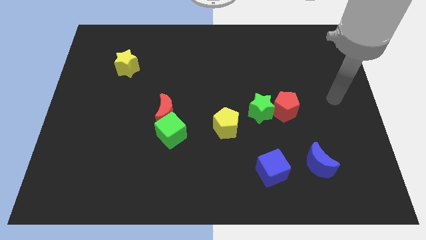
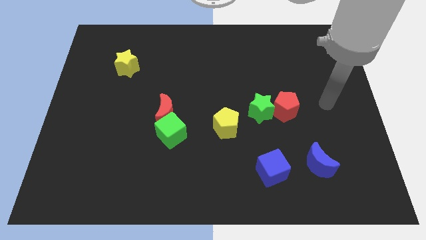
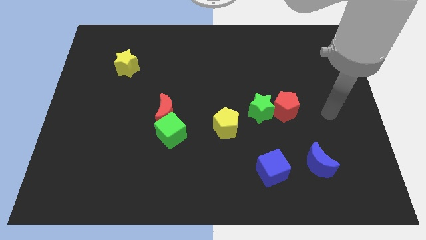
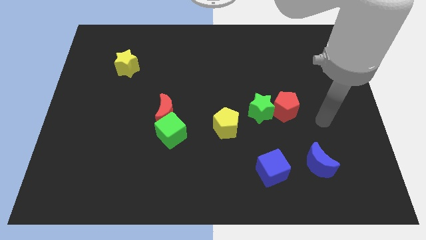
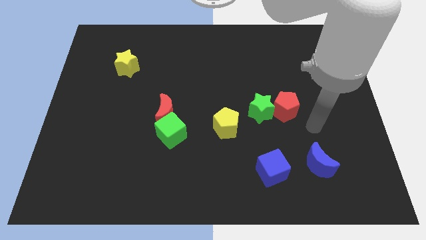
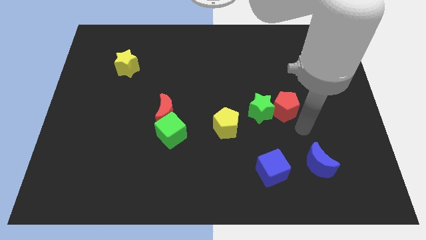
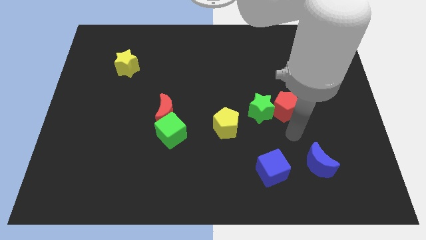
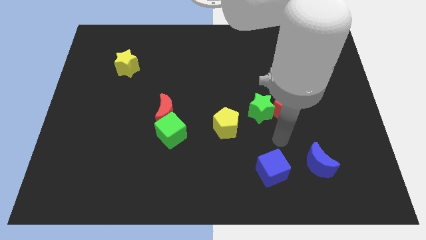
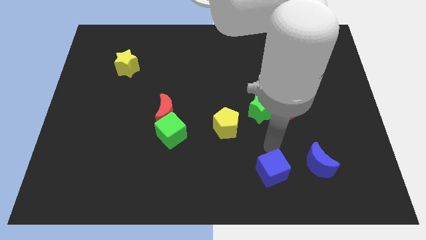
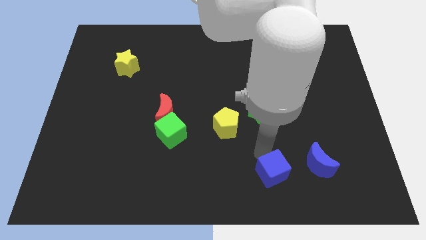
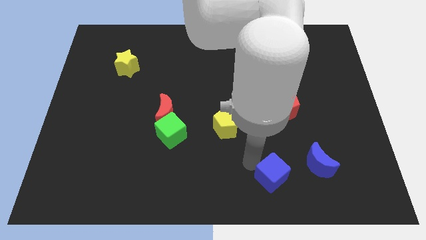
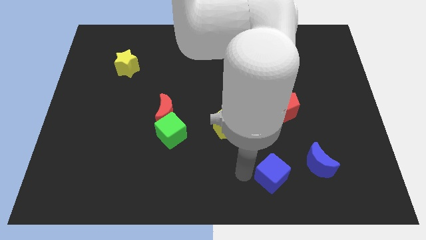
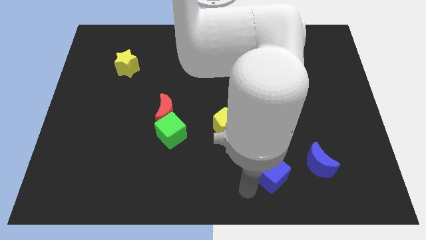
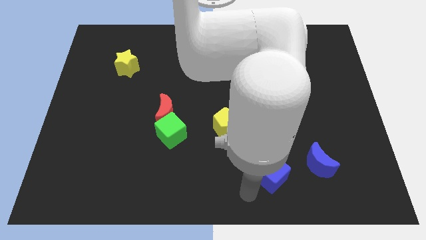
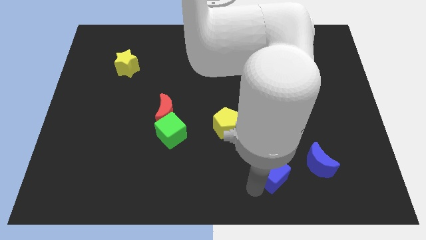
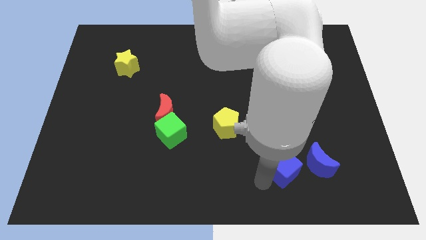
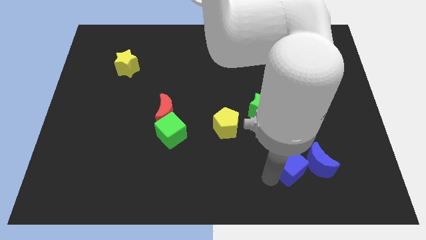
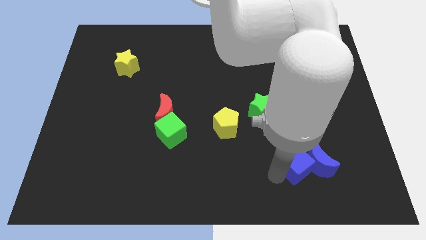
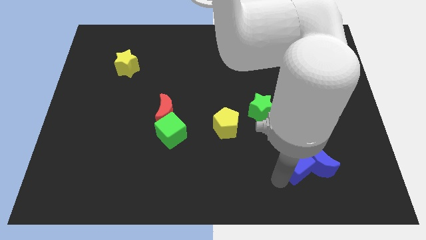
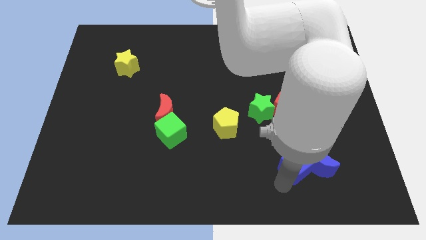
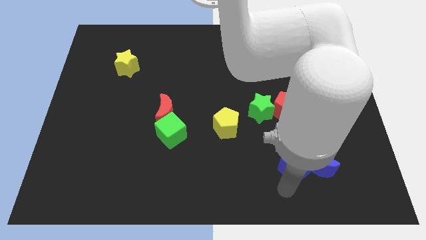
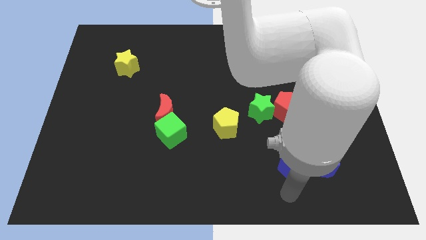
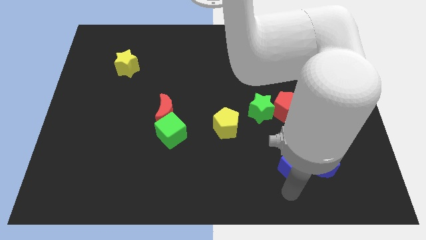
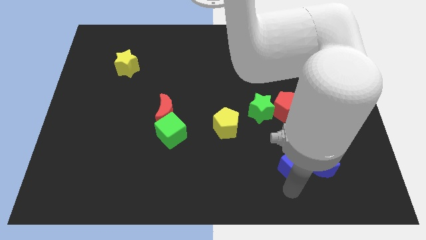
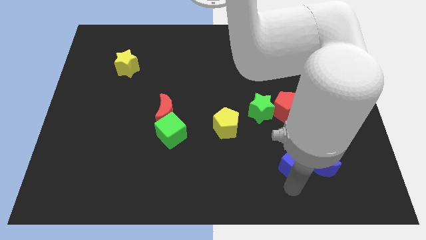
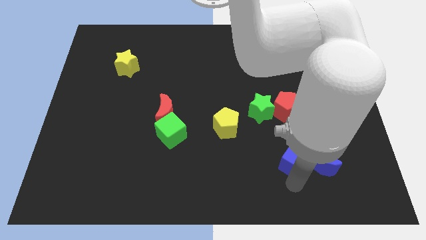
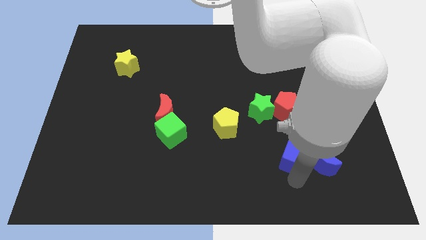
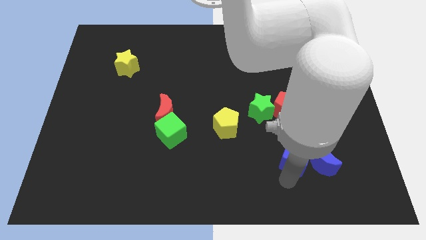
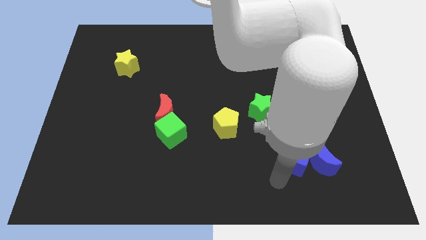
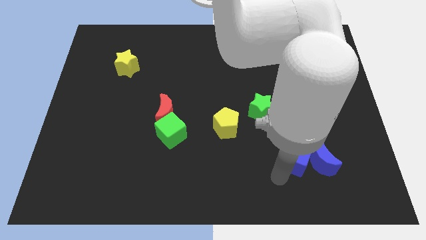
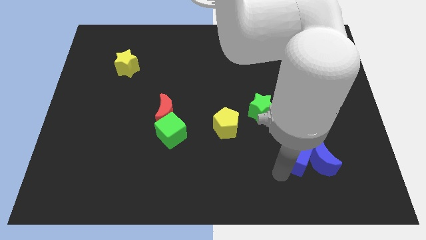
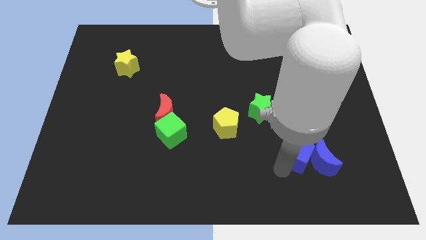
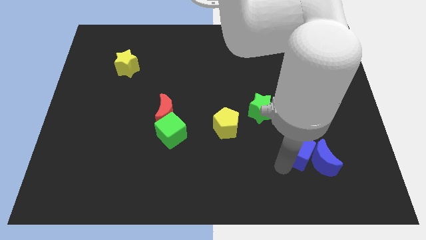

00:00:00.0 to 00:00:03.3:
push the blue cube a little diagonally upwards and right

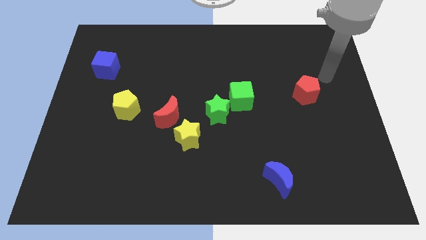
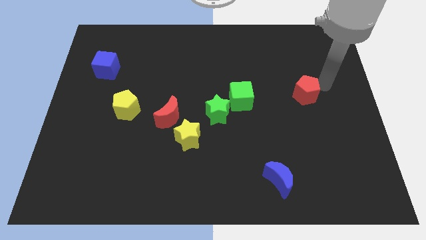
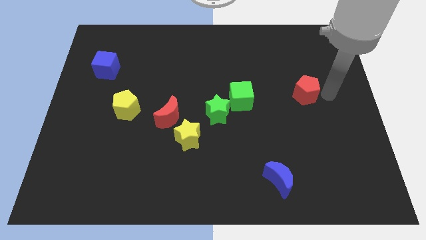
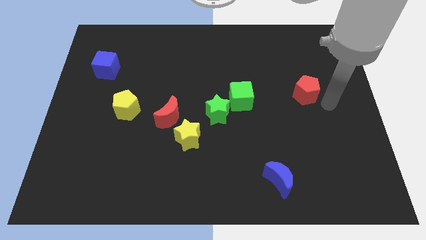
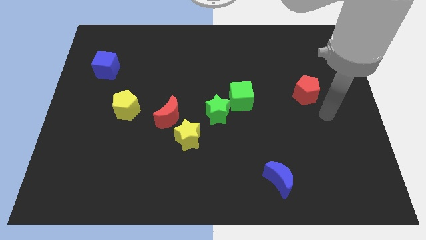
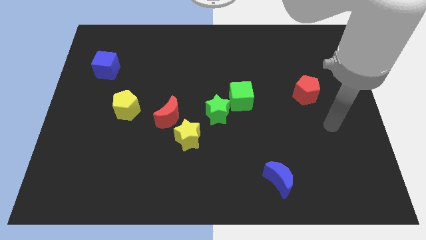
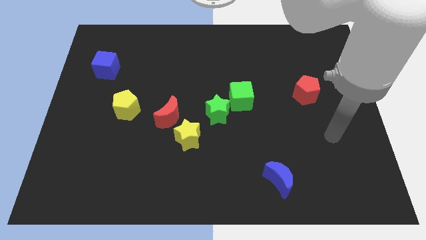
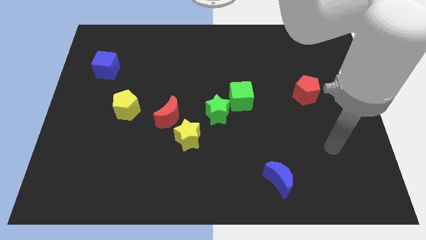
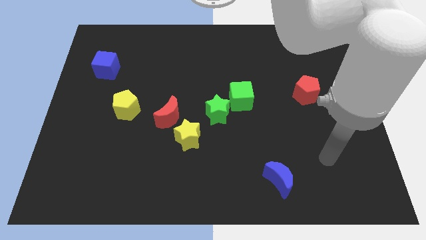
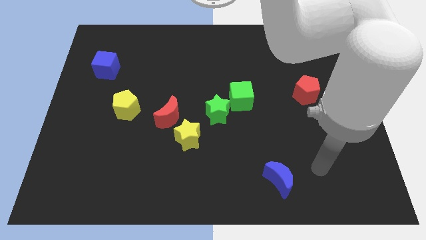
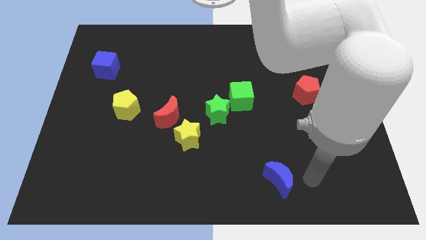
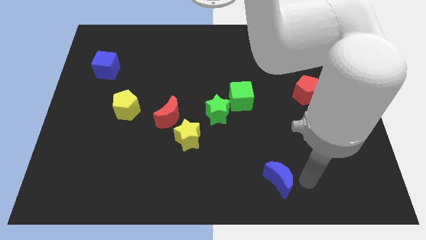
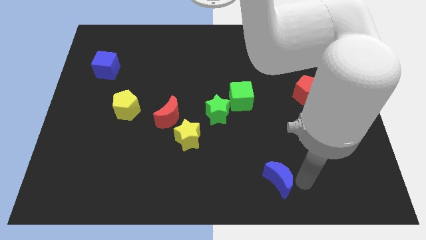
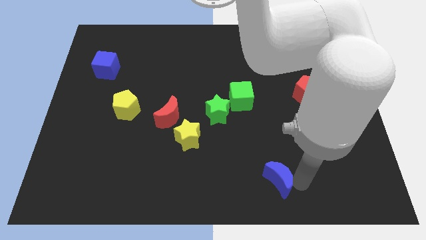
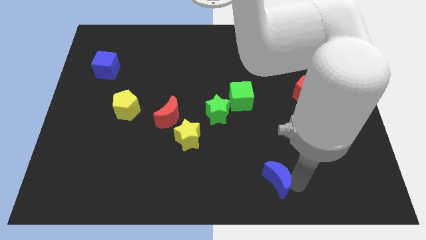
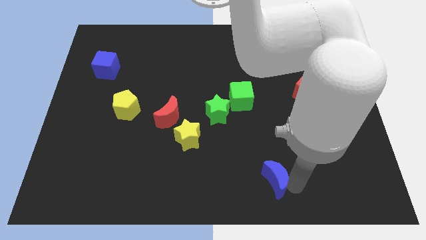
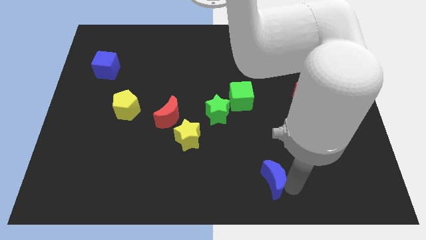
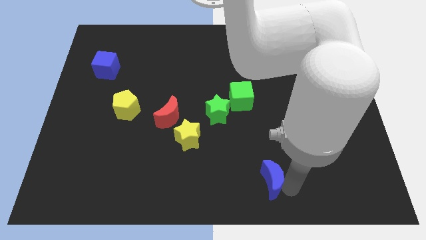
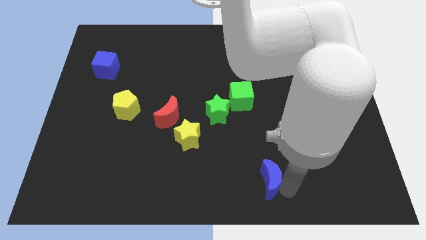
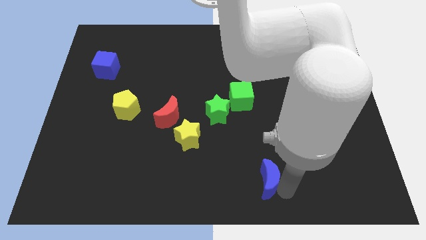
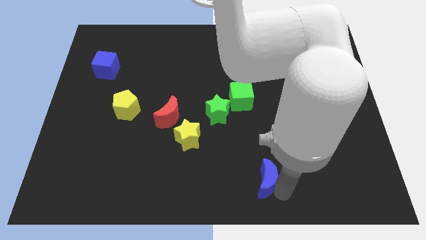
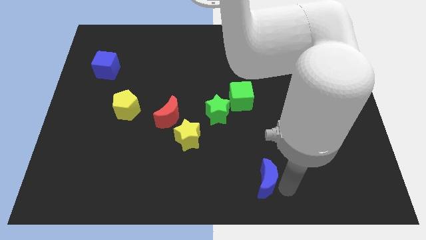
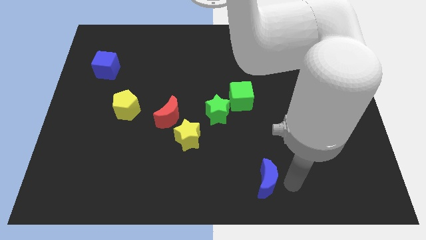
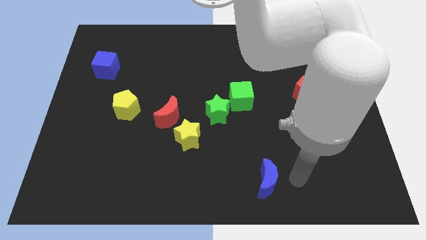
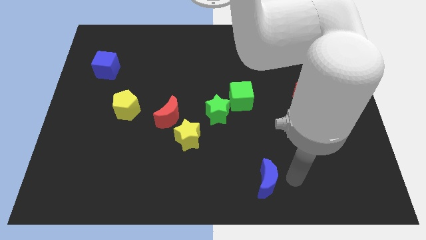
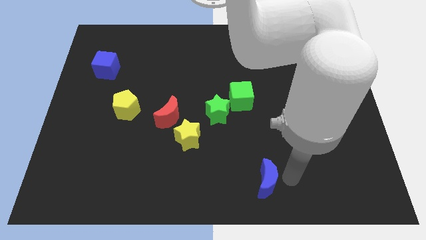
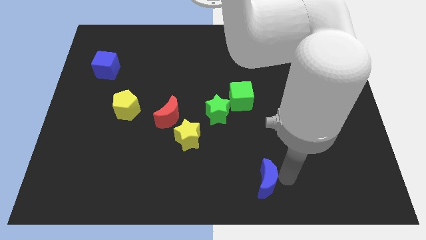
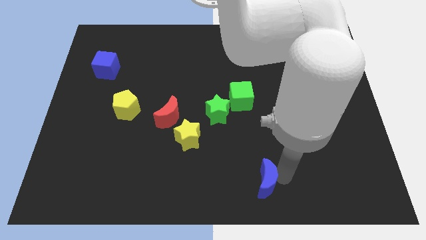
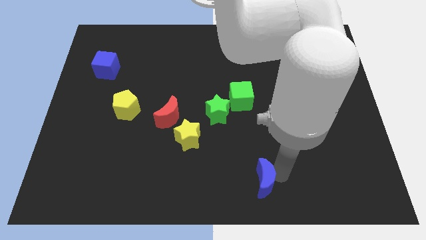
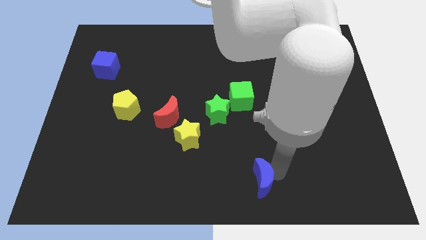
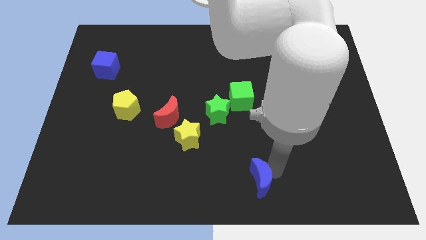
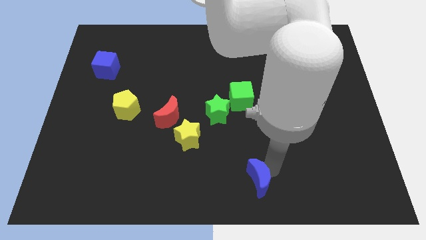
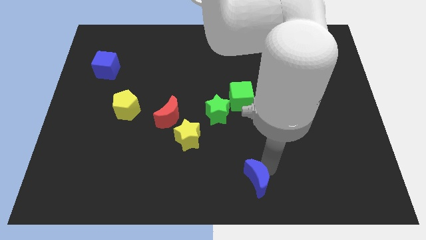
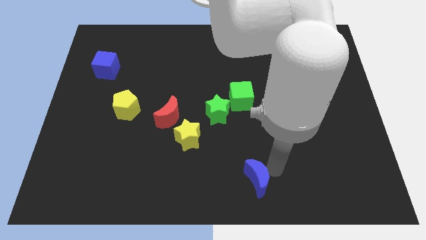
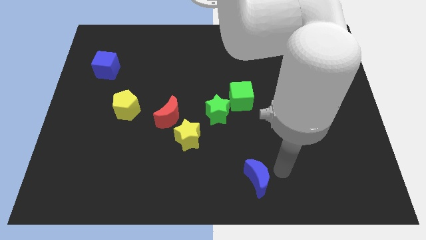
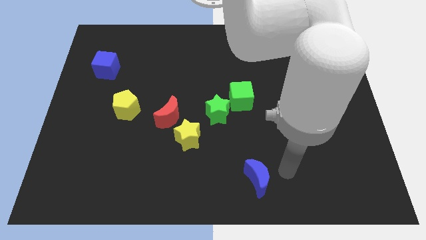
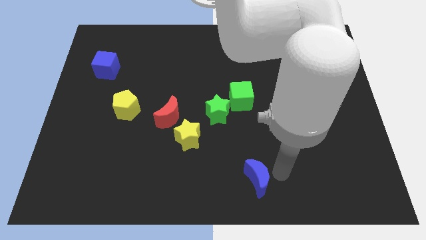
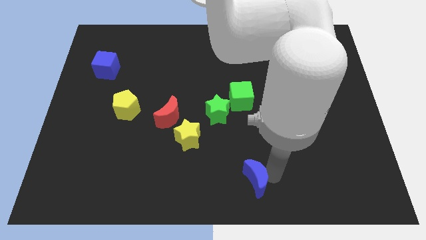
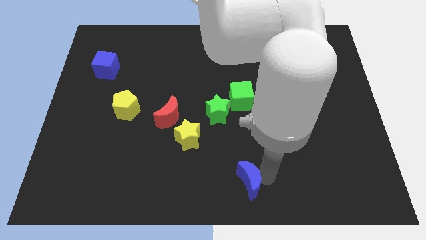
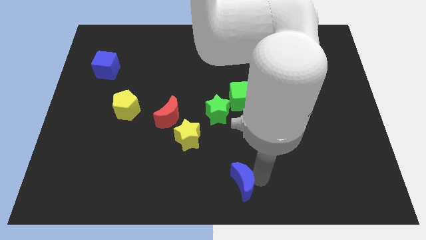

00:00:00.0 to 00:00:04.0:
slightly move the blue moon left

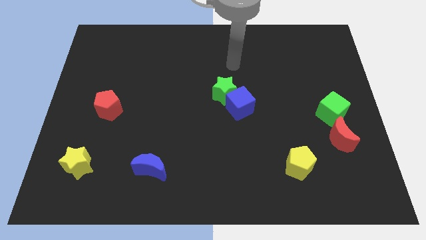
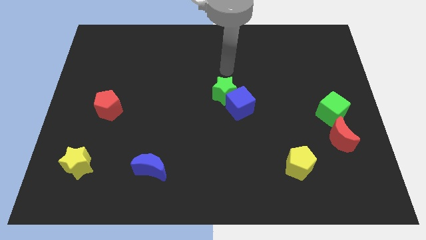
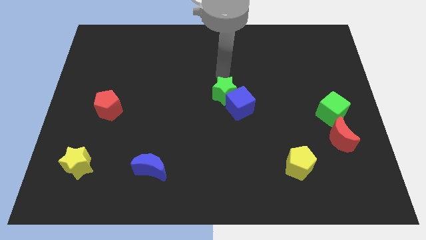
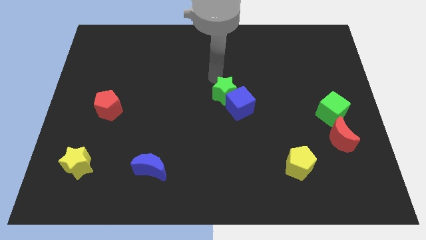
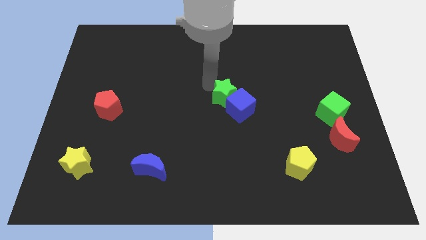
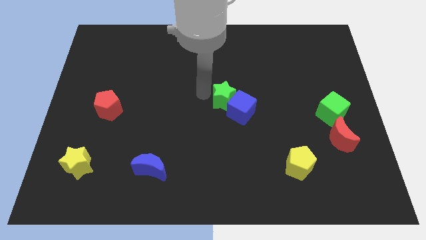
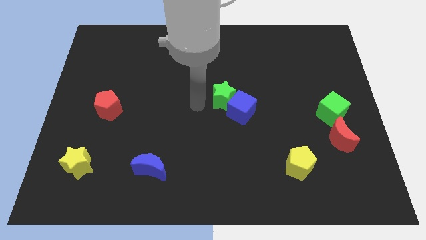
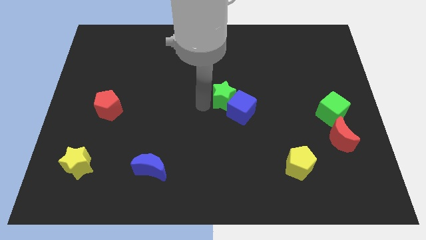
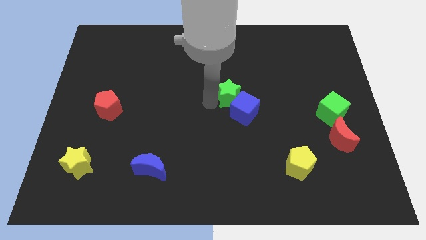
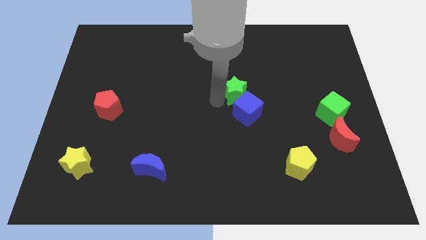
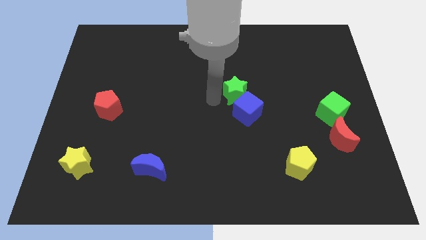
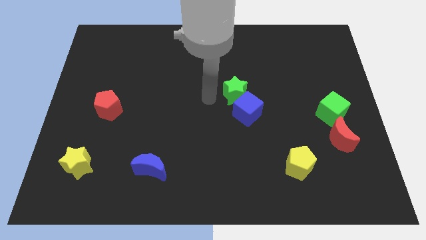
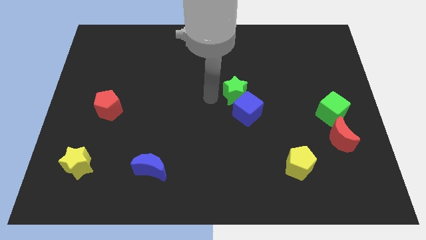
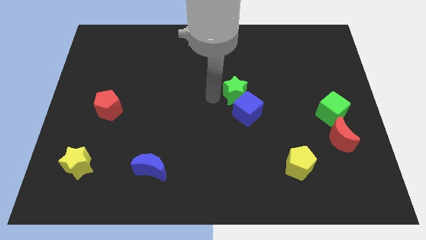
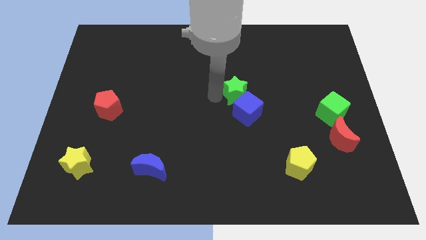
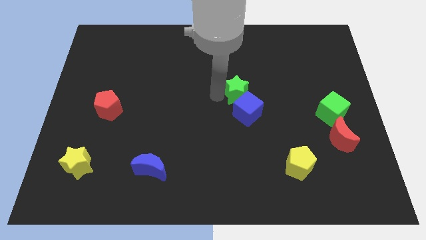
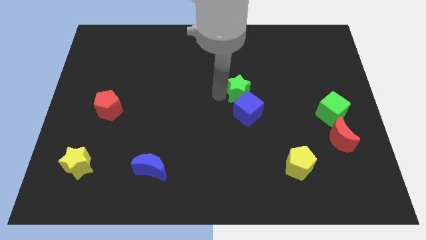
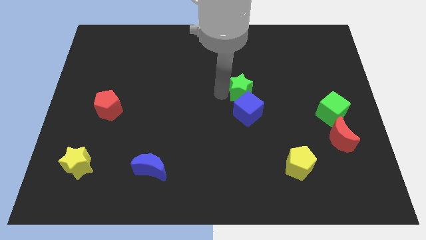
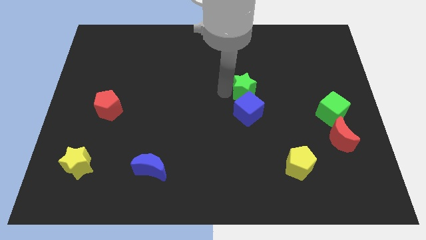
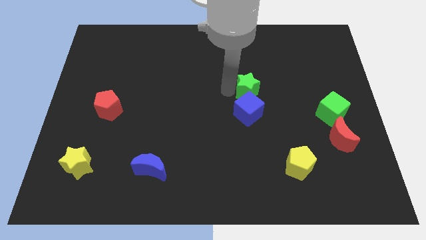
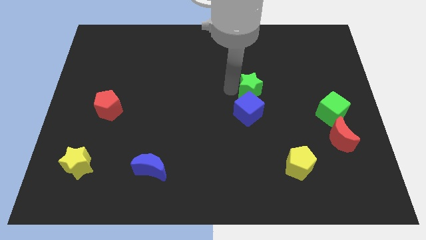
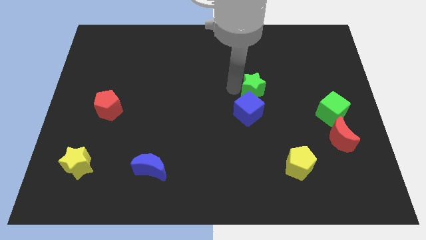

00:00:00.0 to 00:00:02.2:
move the green star right slightly
